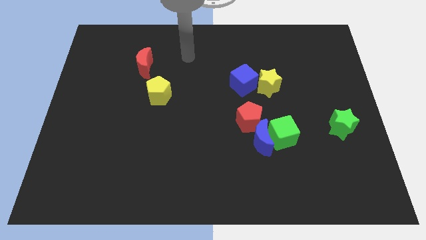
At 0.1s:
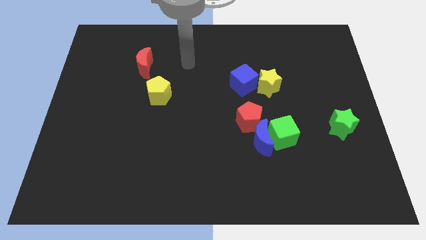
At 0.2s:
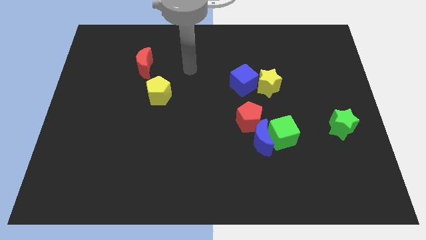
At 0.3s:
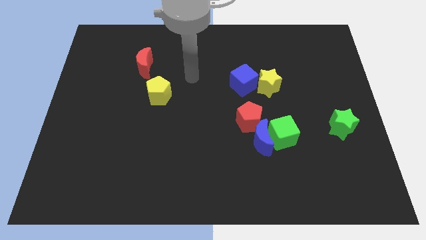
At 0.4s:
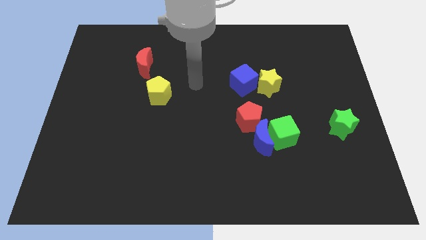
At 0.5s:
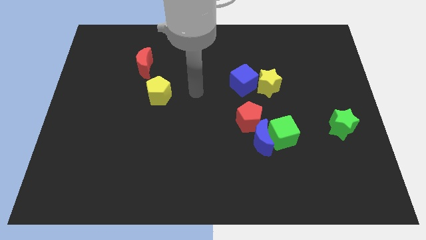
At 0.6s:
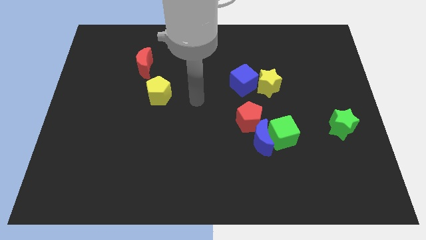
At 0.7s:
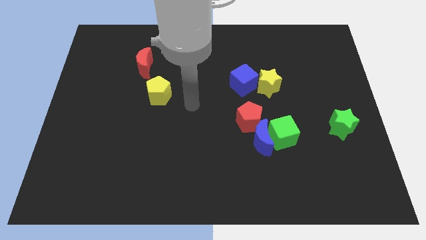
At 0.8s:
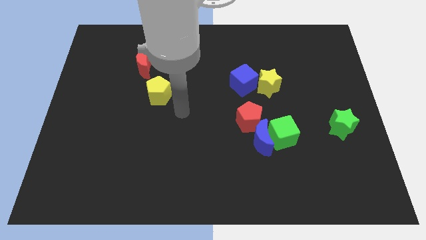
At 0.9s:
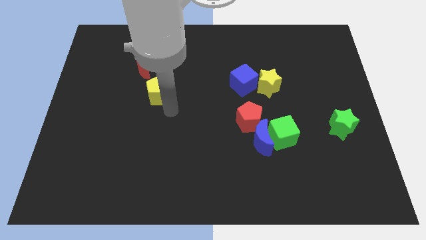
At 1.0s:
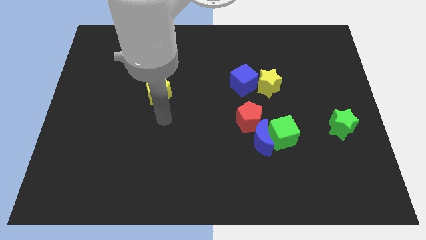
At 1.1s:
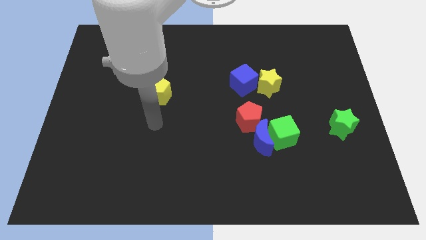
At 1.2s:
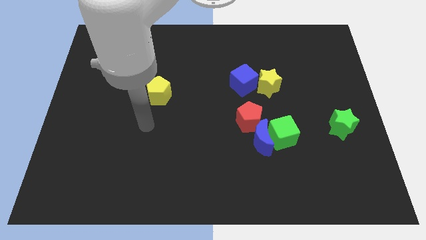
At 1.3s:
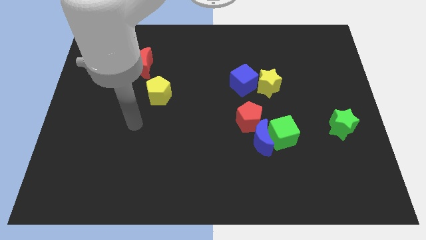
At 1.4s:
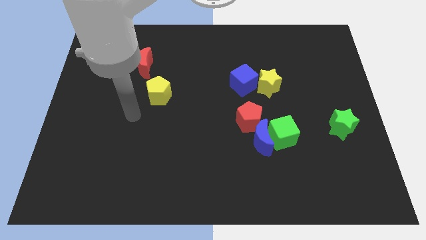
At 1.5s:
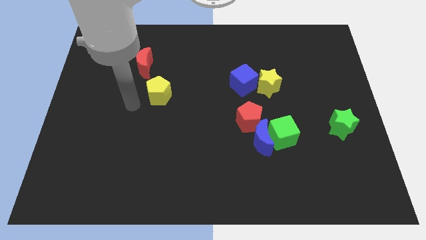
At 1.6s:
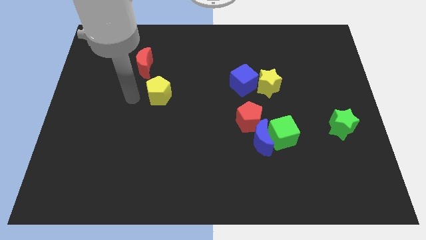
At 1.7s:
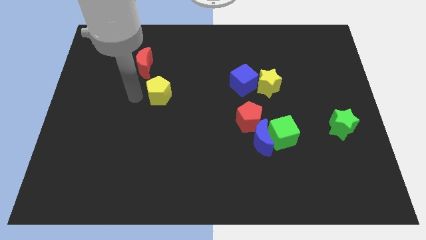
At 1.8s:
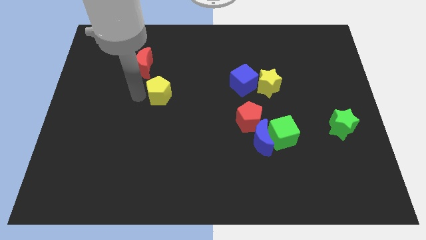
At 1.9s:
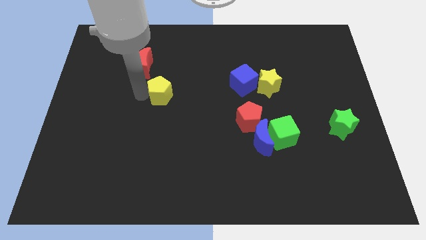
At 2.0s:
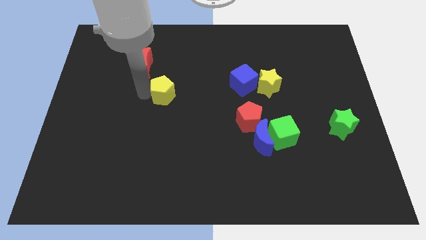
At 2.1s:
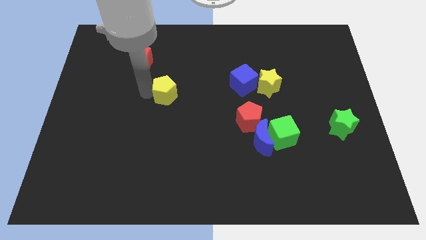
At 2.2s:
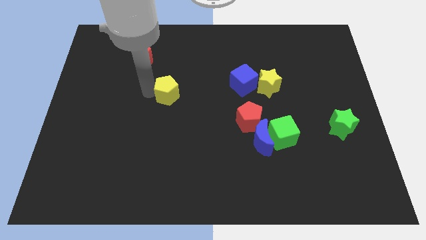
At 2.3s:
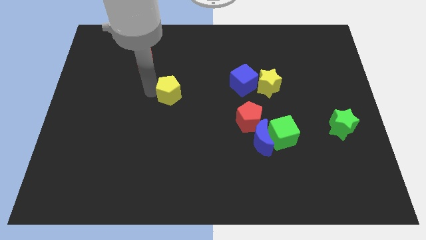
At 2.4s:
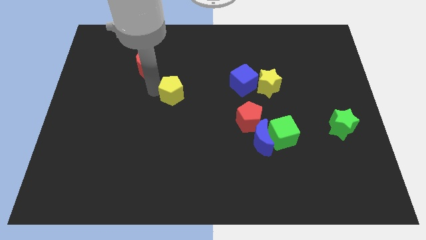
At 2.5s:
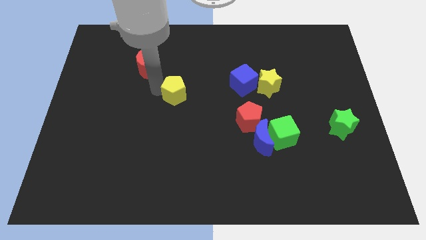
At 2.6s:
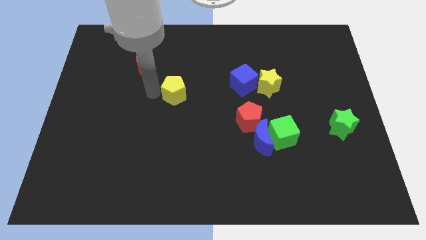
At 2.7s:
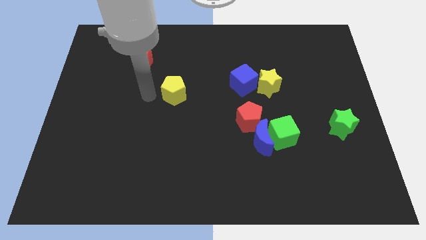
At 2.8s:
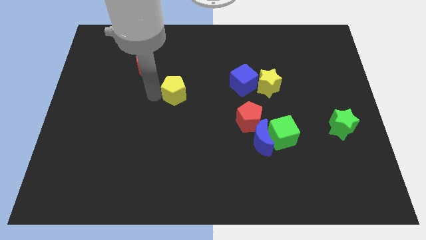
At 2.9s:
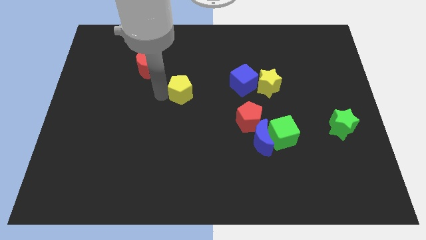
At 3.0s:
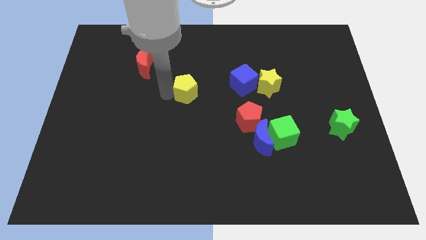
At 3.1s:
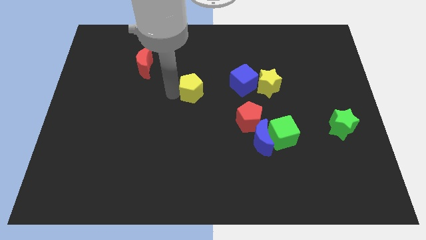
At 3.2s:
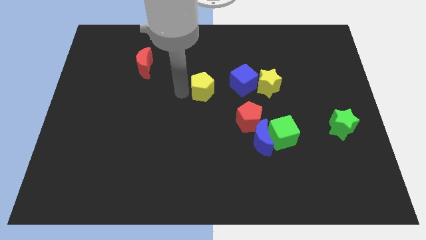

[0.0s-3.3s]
push the yellow pentagon to the left of the yellow star

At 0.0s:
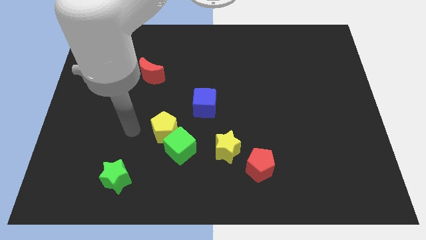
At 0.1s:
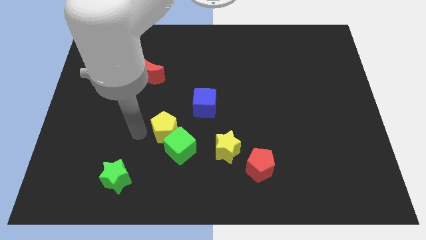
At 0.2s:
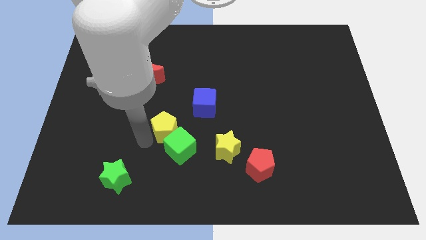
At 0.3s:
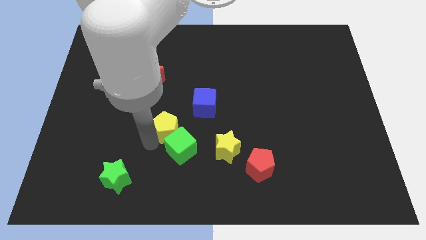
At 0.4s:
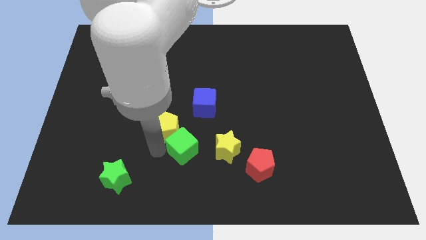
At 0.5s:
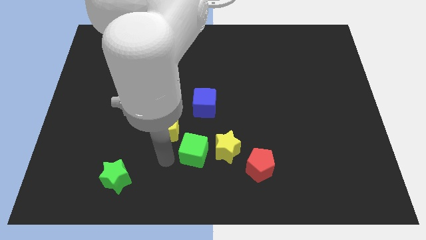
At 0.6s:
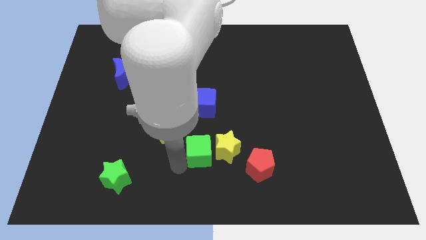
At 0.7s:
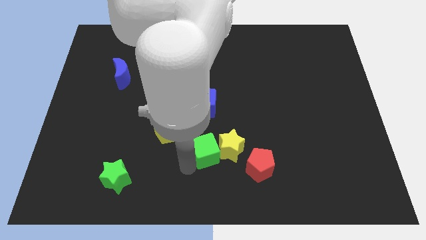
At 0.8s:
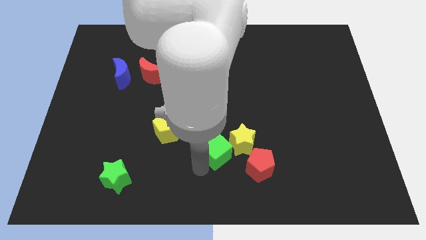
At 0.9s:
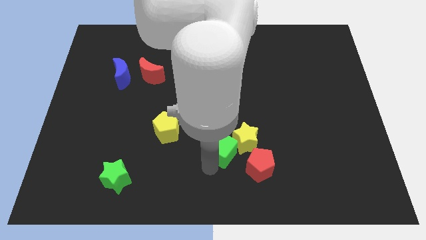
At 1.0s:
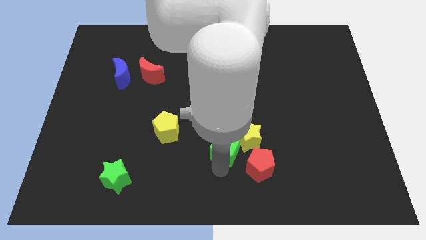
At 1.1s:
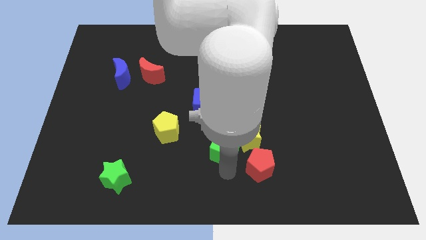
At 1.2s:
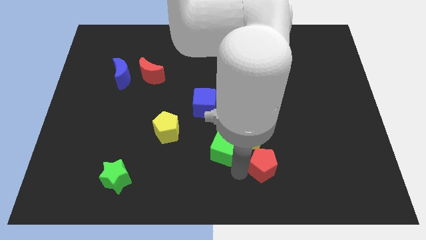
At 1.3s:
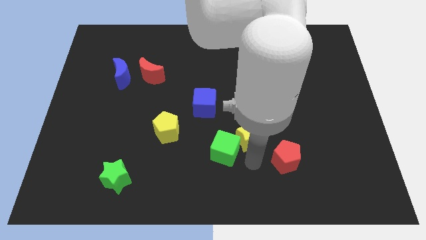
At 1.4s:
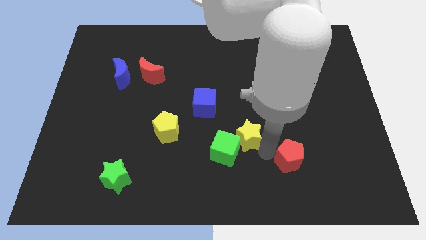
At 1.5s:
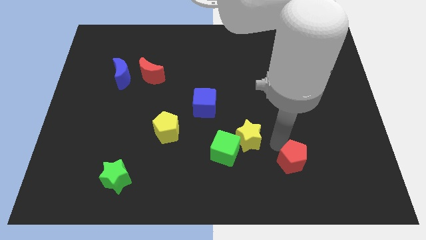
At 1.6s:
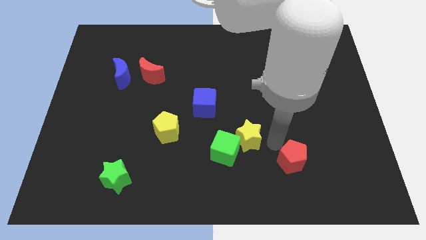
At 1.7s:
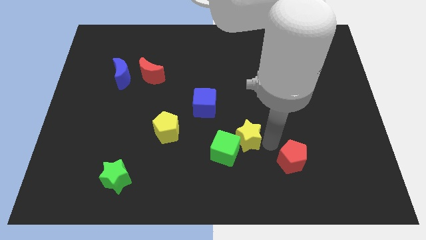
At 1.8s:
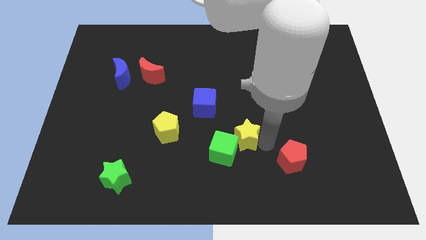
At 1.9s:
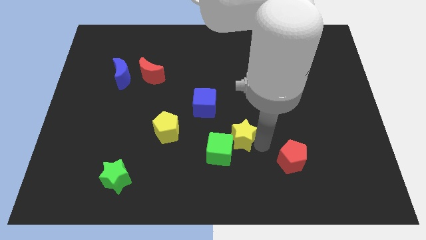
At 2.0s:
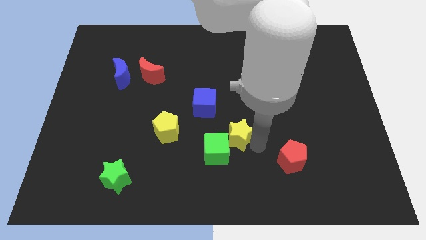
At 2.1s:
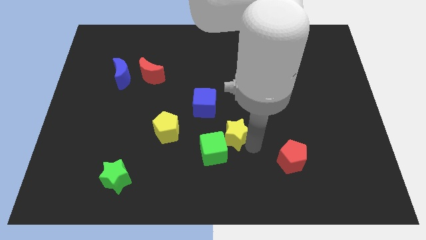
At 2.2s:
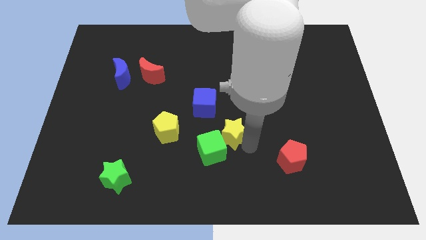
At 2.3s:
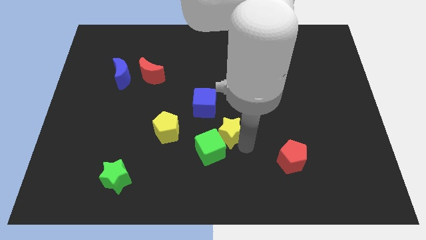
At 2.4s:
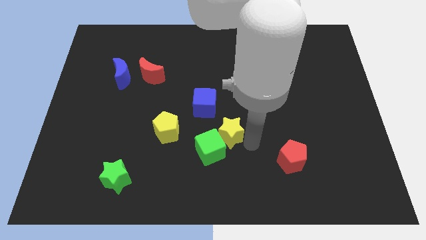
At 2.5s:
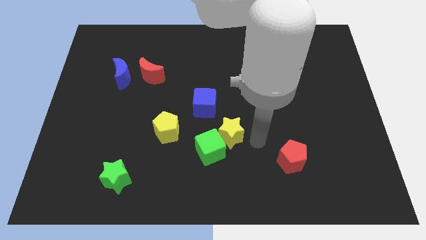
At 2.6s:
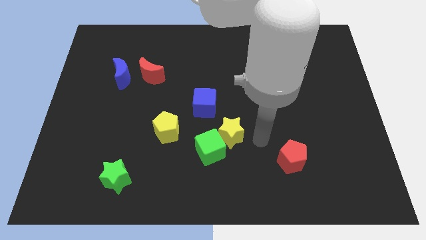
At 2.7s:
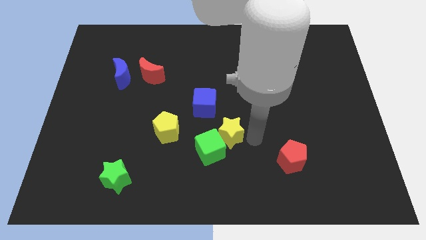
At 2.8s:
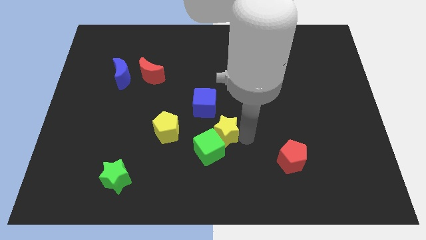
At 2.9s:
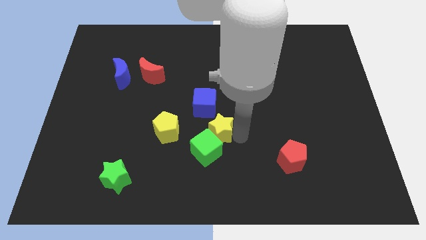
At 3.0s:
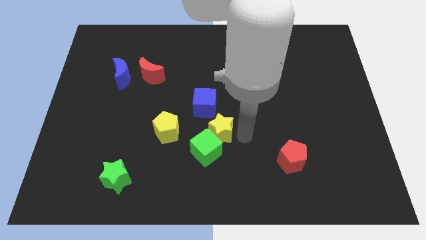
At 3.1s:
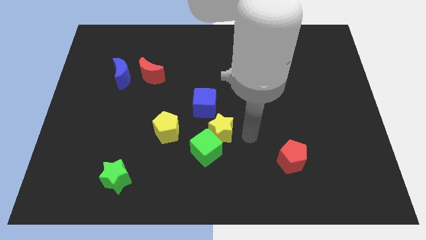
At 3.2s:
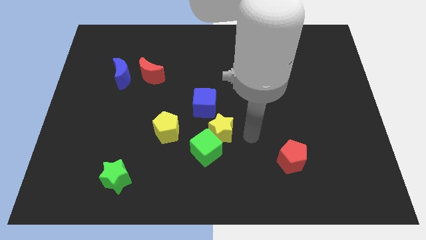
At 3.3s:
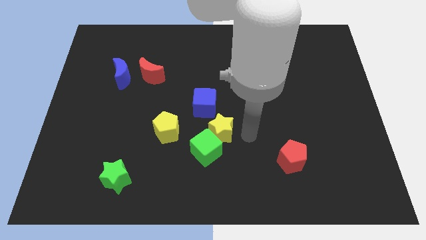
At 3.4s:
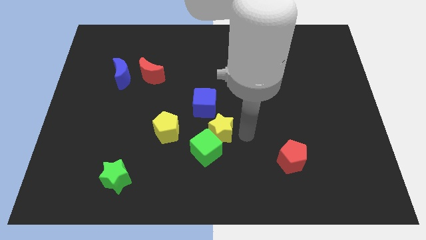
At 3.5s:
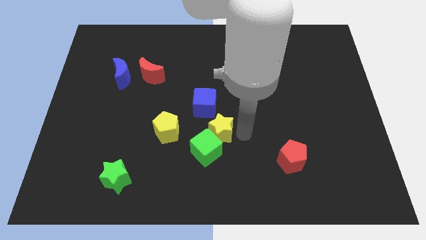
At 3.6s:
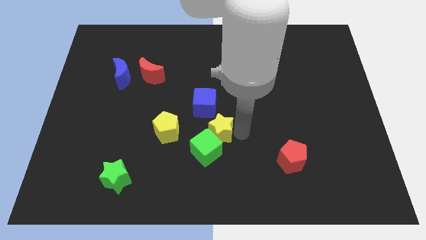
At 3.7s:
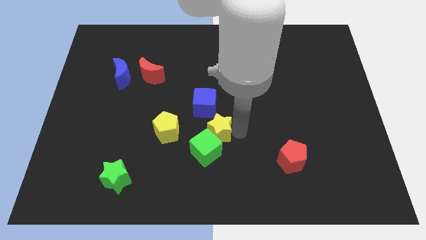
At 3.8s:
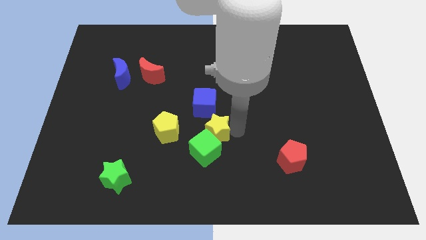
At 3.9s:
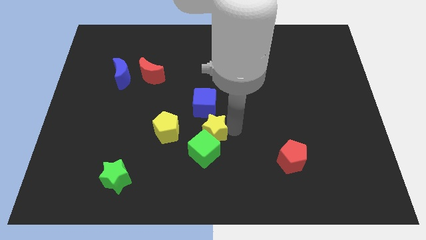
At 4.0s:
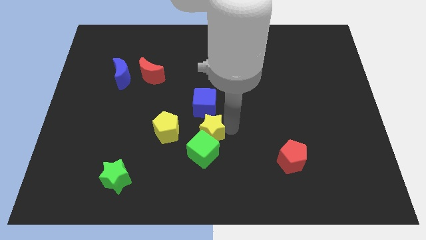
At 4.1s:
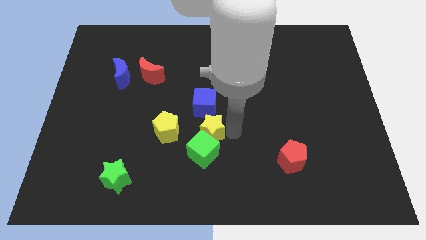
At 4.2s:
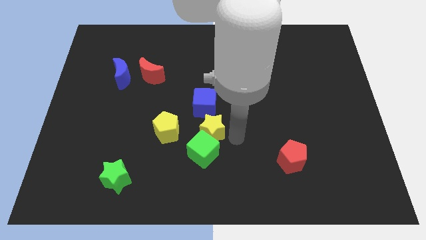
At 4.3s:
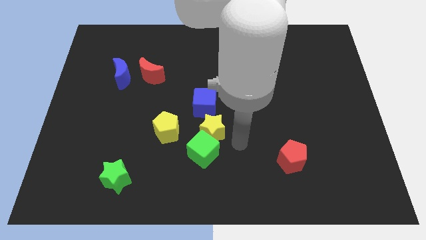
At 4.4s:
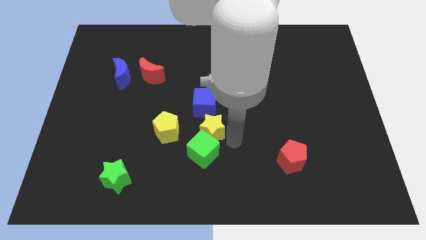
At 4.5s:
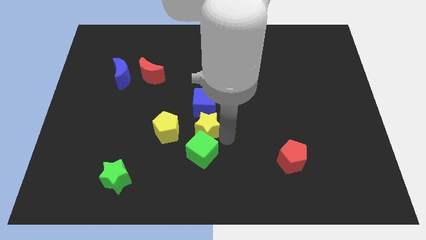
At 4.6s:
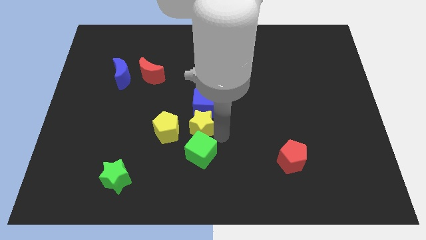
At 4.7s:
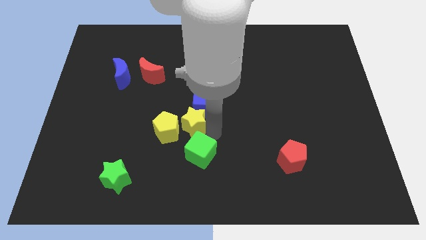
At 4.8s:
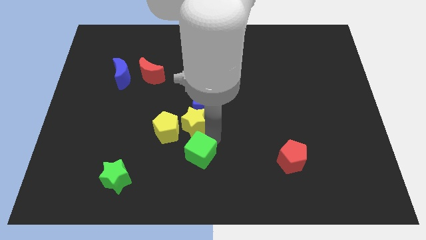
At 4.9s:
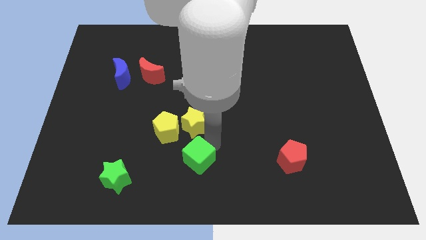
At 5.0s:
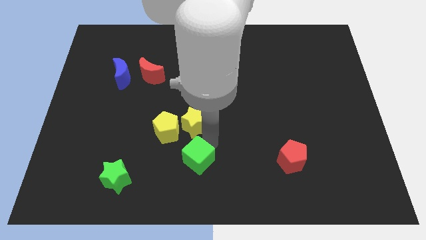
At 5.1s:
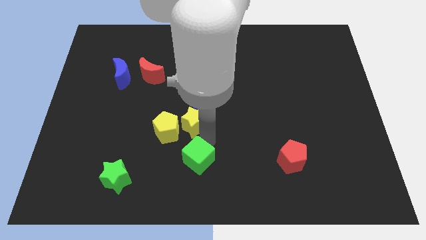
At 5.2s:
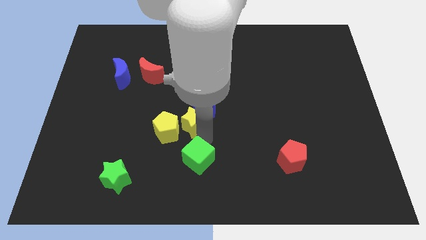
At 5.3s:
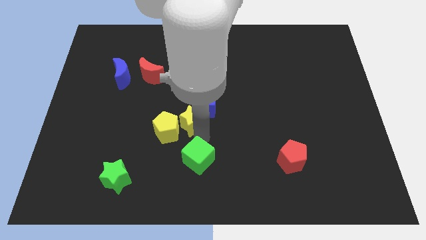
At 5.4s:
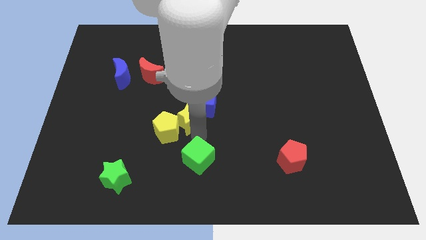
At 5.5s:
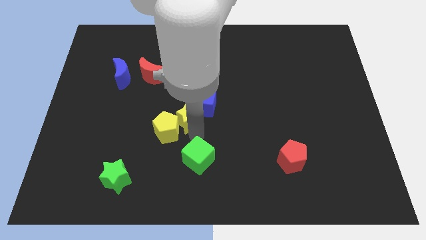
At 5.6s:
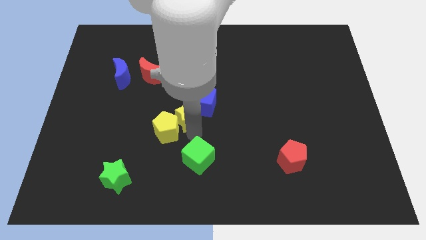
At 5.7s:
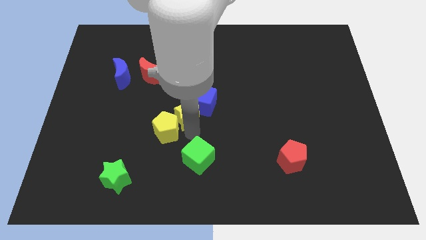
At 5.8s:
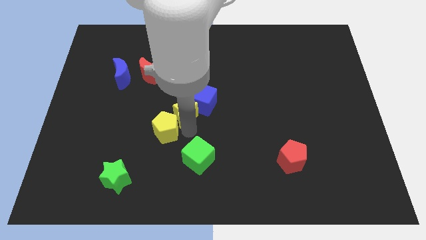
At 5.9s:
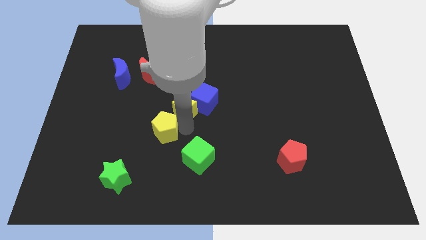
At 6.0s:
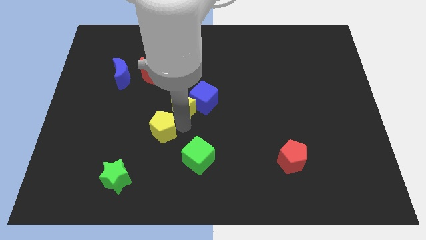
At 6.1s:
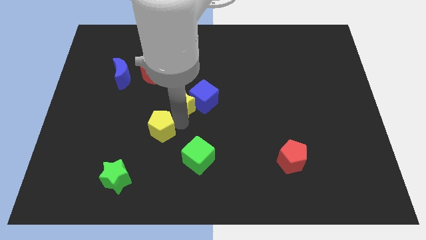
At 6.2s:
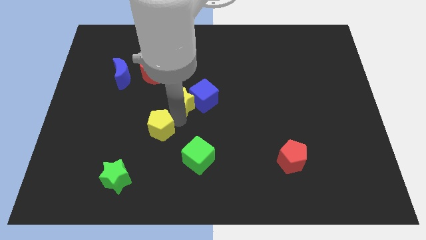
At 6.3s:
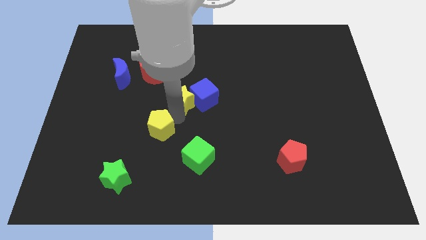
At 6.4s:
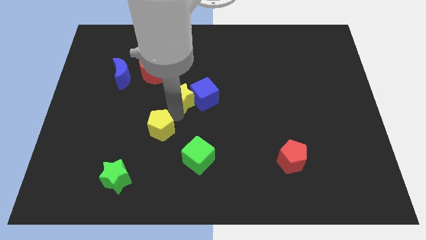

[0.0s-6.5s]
slide the yellow star to the top left of the blue cube
